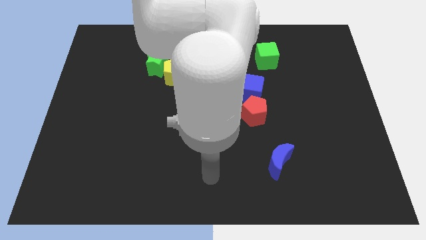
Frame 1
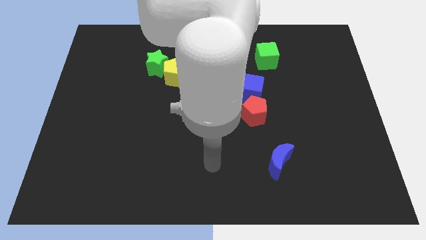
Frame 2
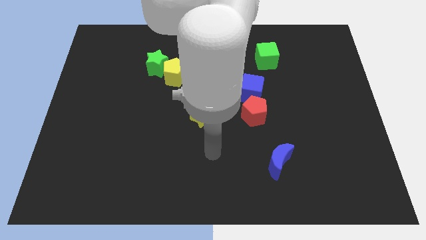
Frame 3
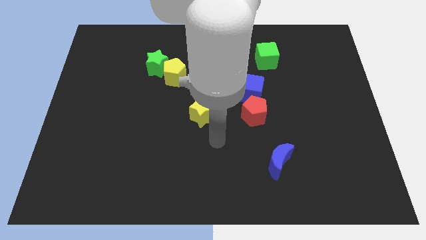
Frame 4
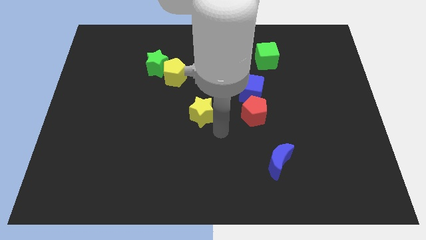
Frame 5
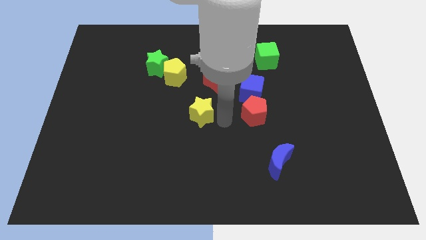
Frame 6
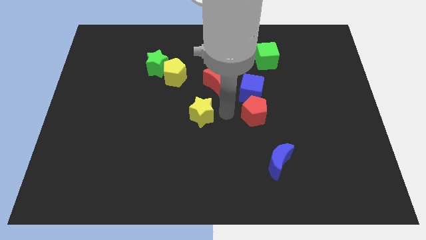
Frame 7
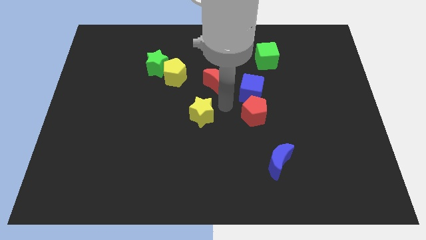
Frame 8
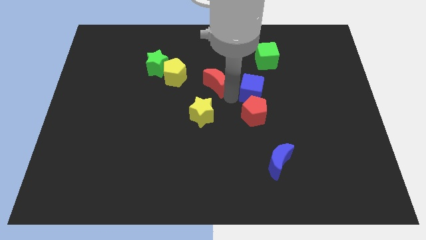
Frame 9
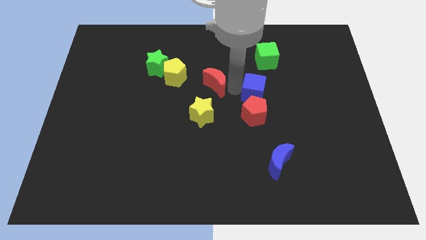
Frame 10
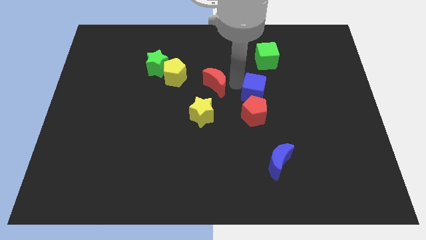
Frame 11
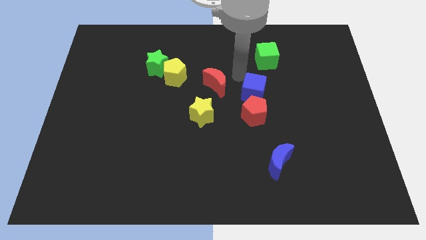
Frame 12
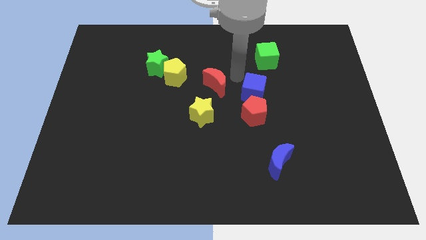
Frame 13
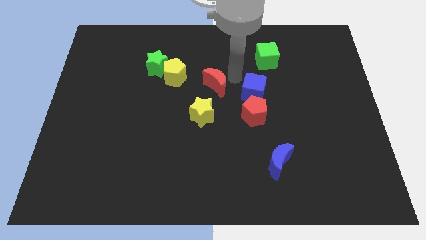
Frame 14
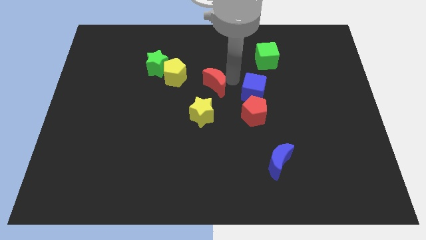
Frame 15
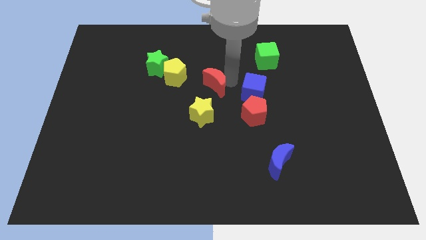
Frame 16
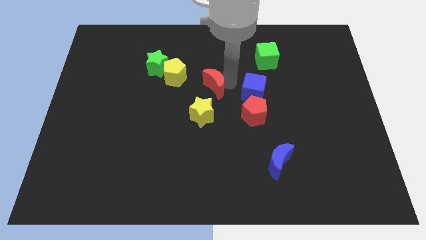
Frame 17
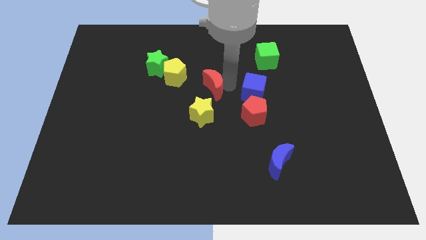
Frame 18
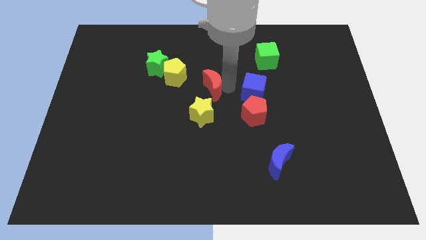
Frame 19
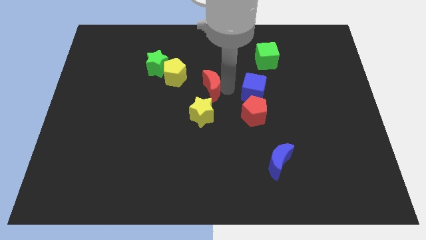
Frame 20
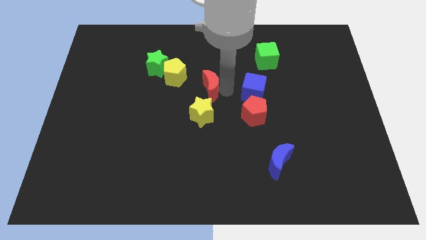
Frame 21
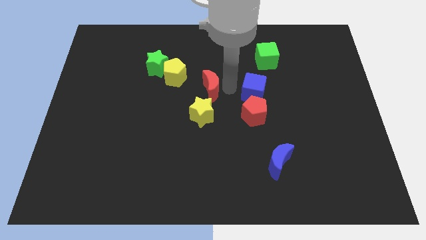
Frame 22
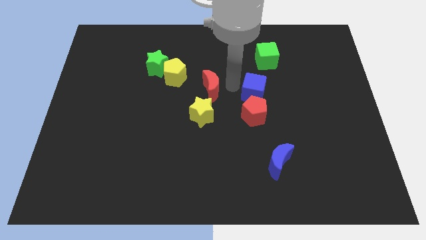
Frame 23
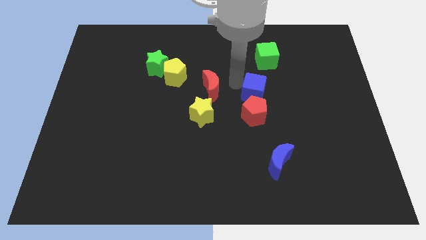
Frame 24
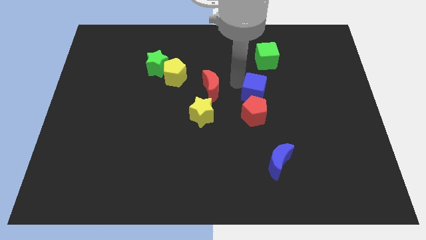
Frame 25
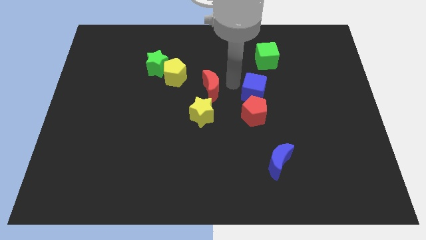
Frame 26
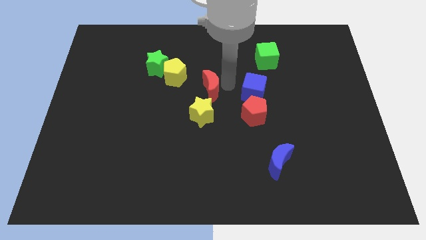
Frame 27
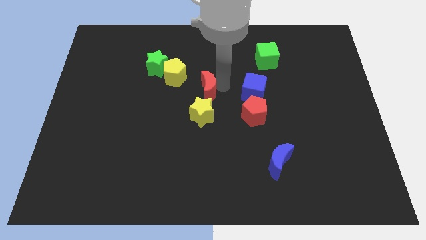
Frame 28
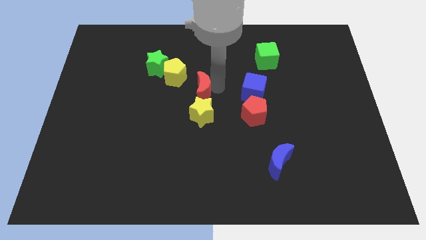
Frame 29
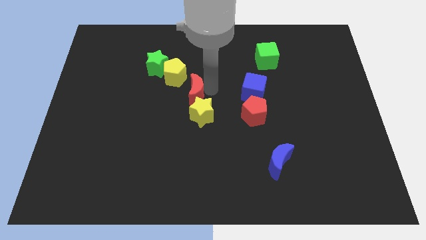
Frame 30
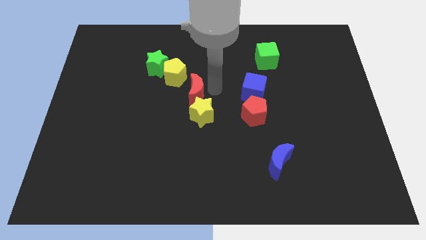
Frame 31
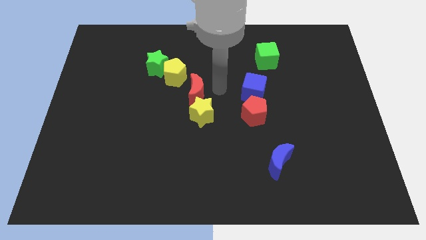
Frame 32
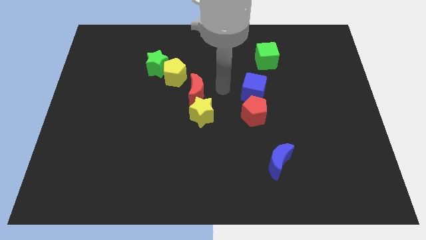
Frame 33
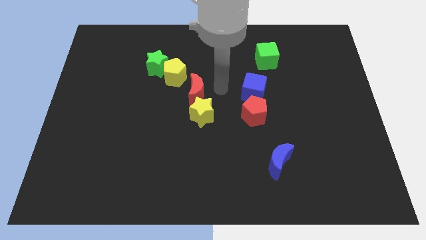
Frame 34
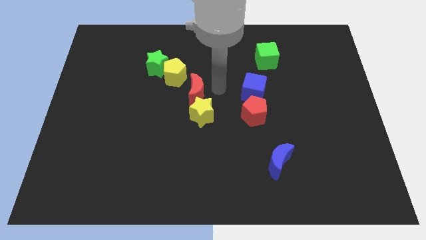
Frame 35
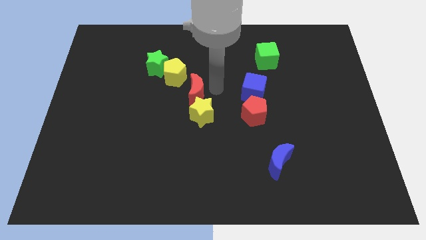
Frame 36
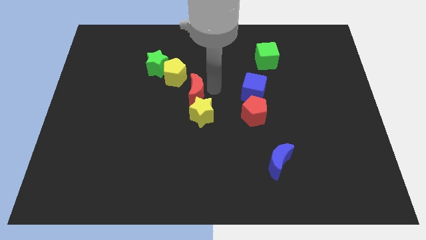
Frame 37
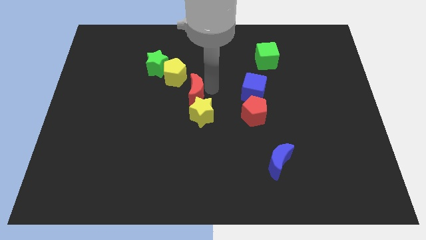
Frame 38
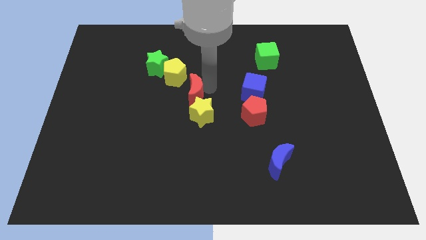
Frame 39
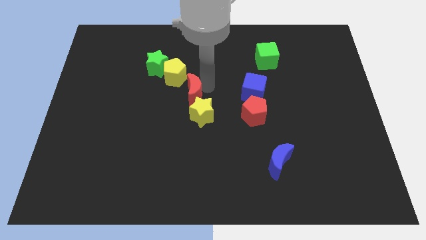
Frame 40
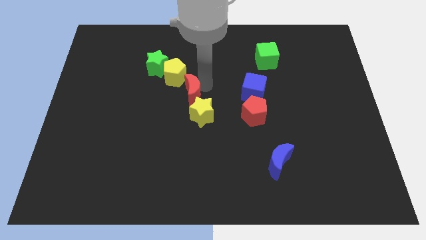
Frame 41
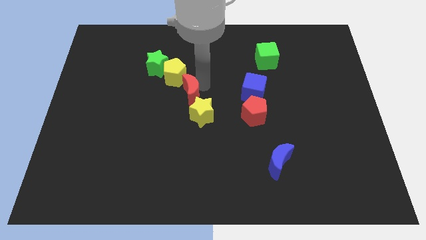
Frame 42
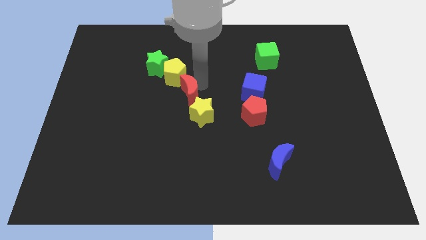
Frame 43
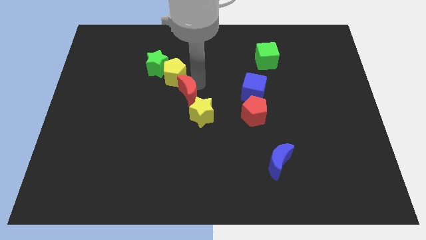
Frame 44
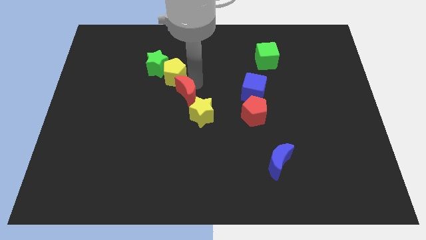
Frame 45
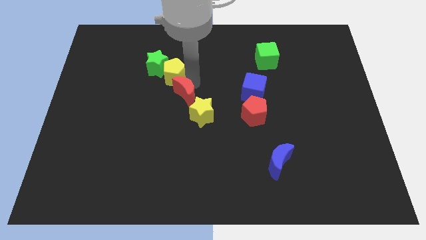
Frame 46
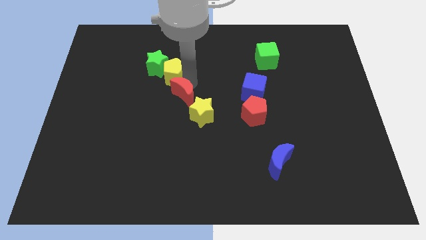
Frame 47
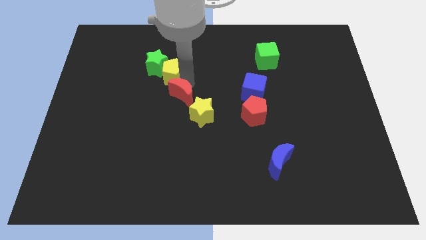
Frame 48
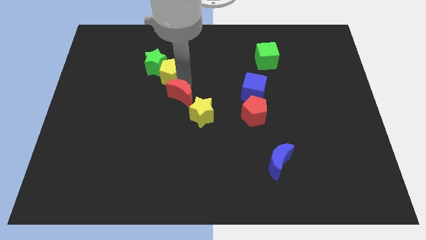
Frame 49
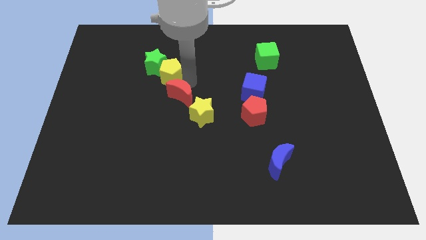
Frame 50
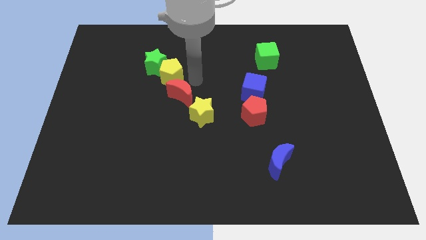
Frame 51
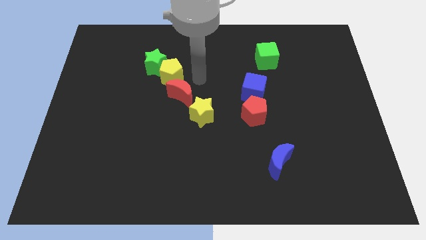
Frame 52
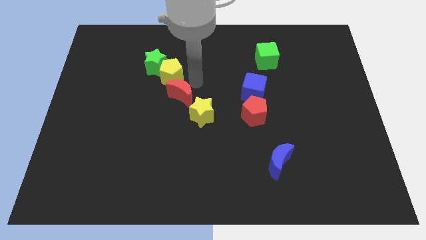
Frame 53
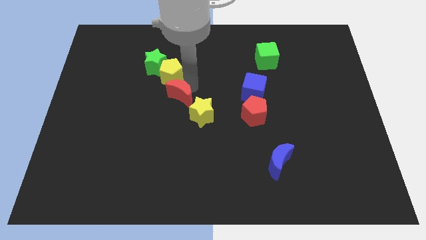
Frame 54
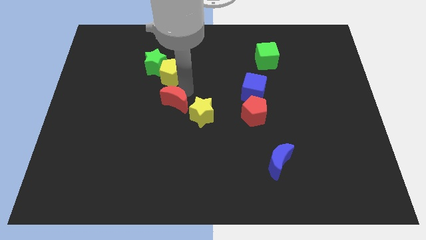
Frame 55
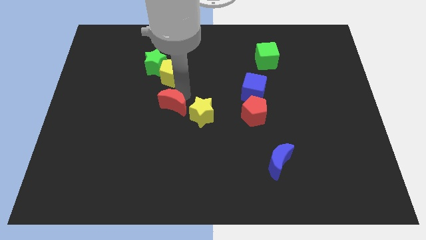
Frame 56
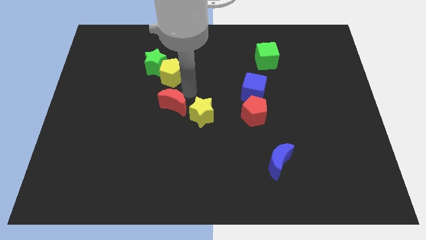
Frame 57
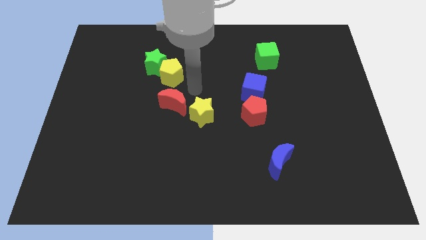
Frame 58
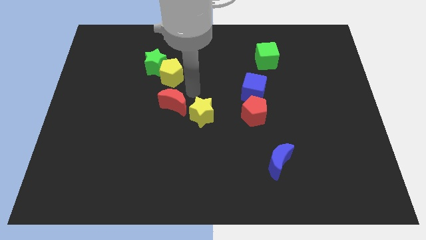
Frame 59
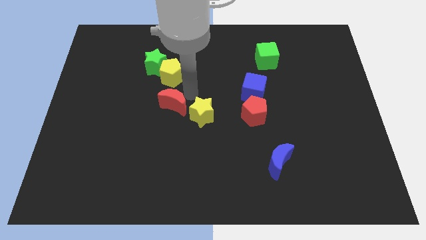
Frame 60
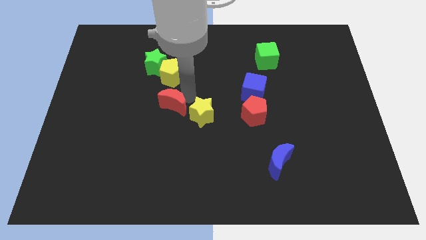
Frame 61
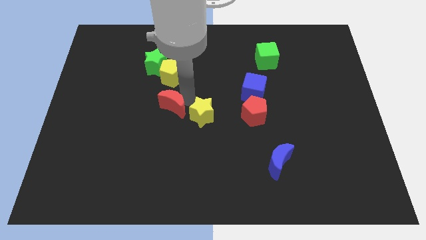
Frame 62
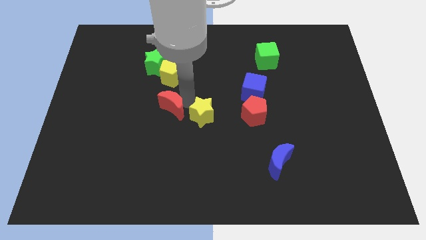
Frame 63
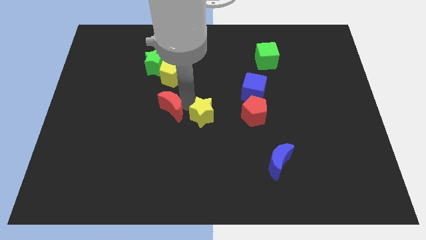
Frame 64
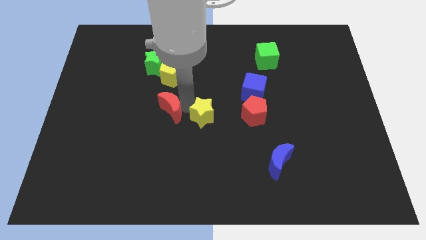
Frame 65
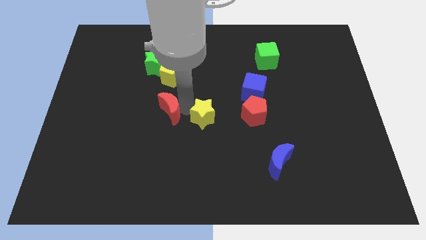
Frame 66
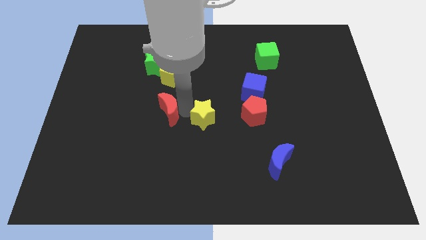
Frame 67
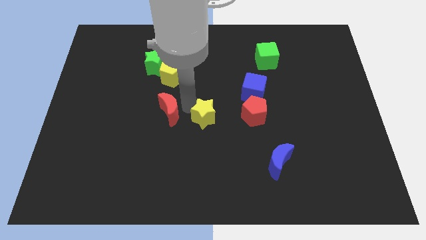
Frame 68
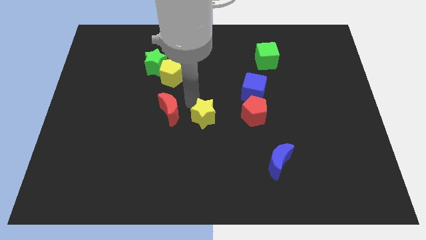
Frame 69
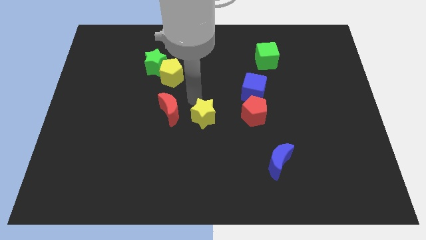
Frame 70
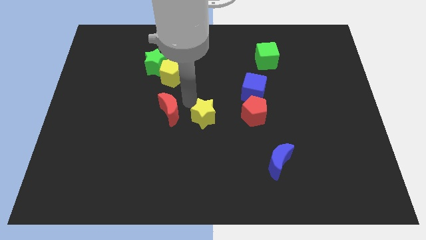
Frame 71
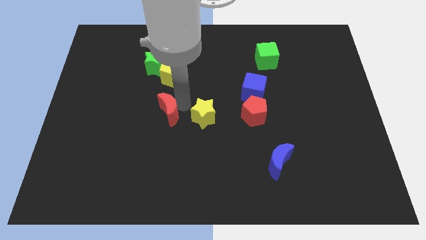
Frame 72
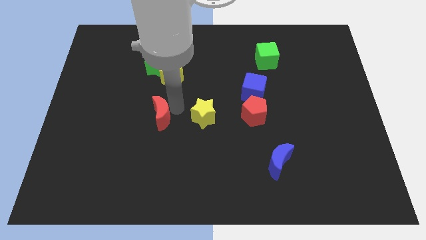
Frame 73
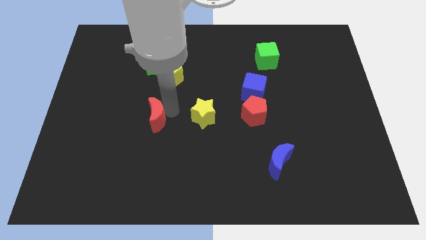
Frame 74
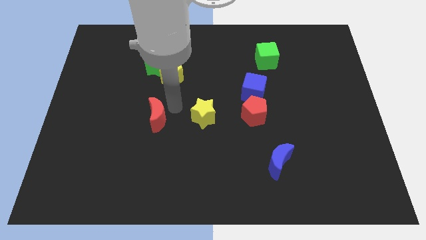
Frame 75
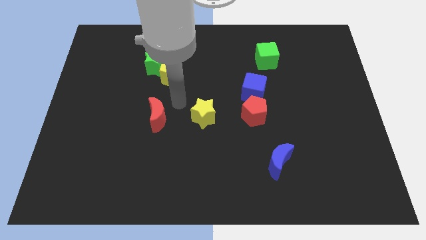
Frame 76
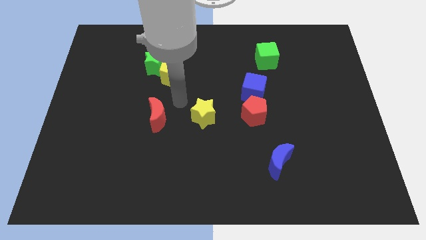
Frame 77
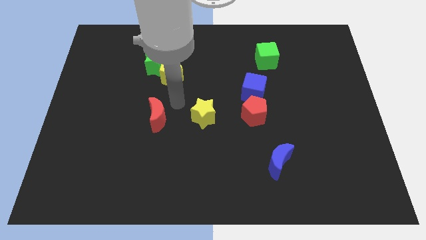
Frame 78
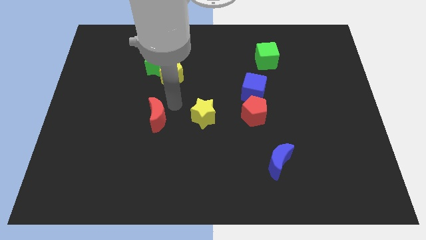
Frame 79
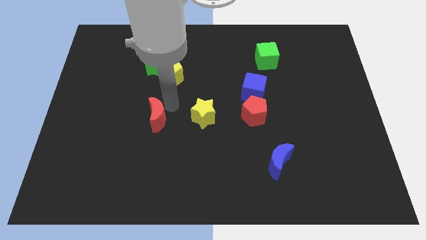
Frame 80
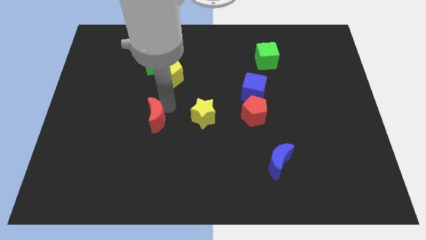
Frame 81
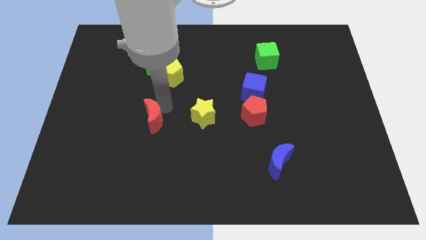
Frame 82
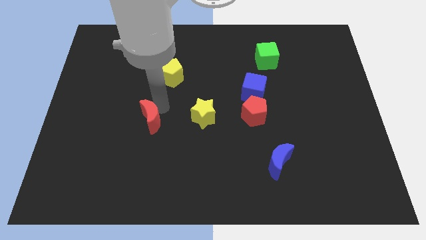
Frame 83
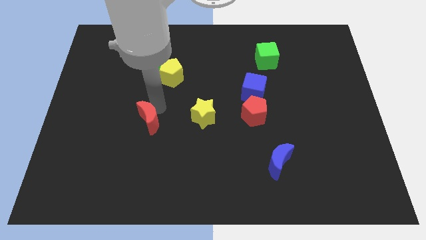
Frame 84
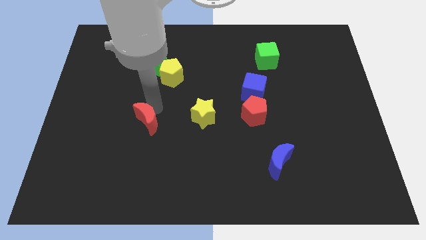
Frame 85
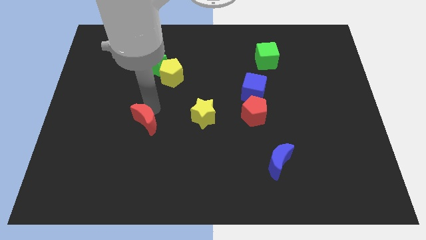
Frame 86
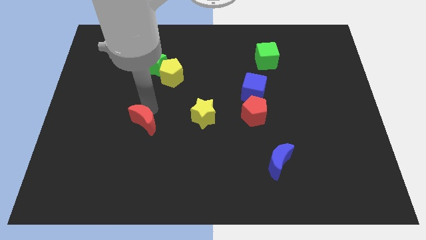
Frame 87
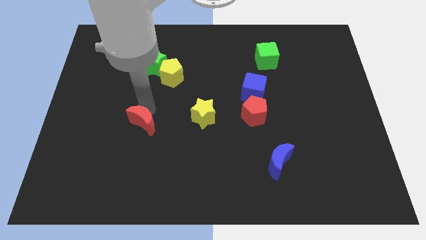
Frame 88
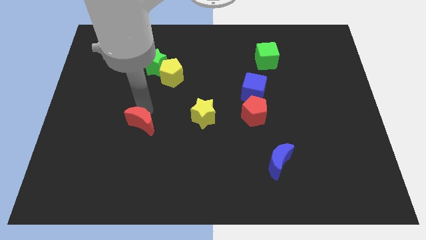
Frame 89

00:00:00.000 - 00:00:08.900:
push the red moon downwards and to the left diagonally
